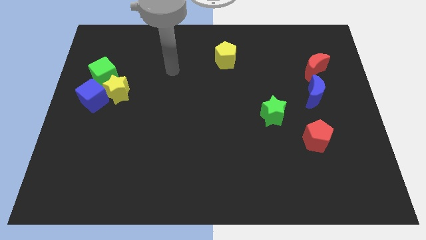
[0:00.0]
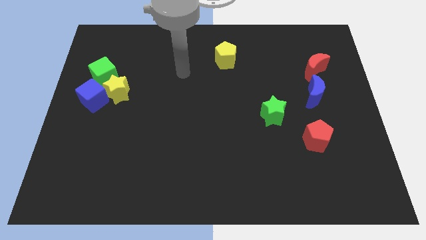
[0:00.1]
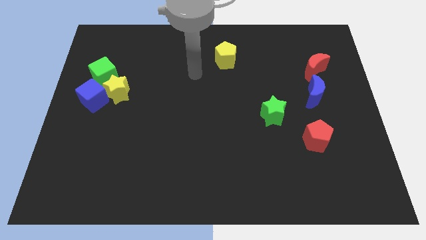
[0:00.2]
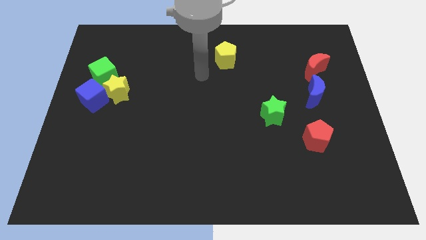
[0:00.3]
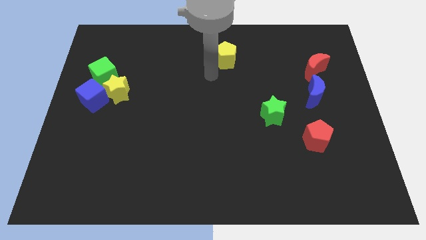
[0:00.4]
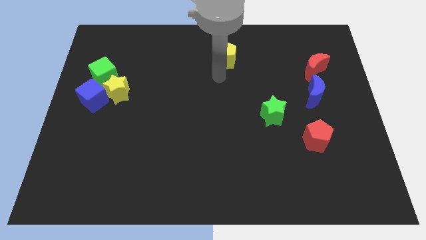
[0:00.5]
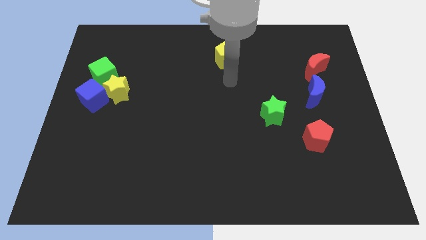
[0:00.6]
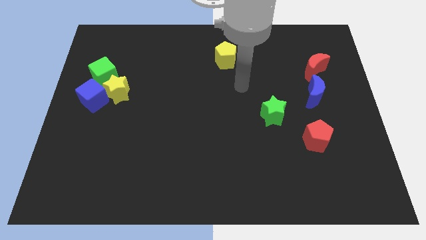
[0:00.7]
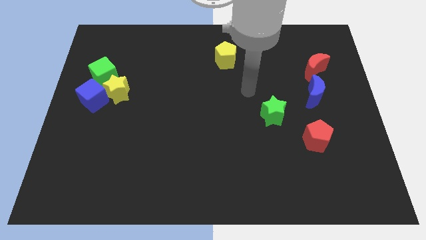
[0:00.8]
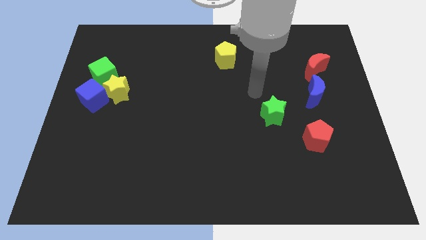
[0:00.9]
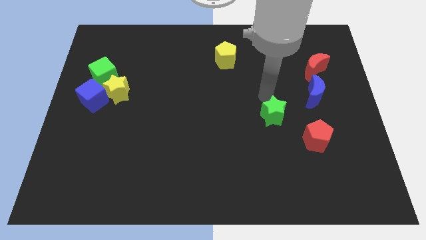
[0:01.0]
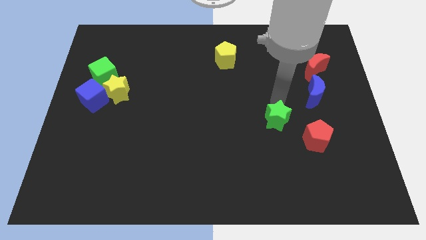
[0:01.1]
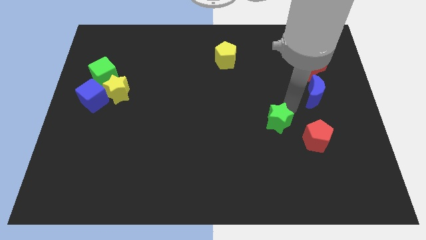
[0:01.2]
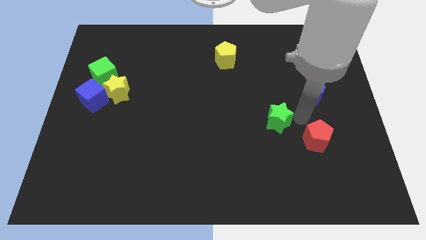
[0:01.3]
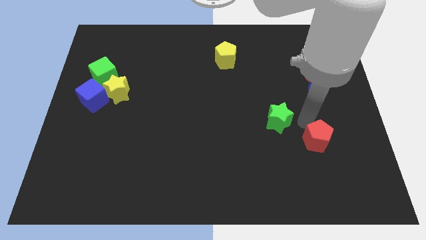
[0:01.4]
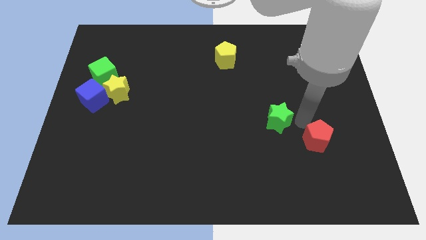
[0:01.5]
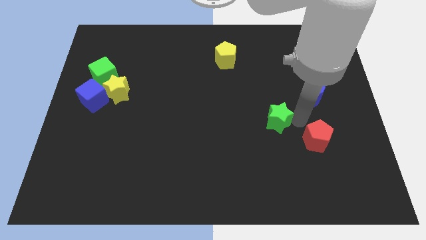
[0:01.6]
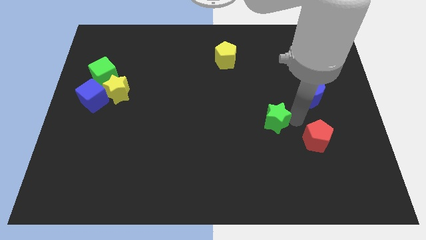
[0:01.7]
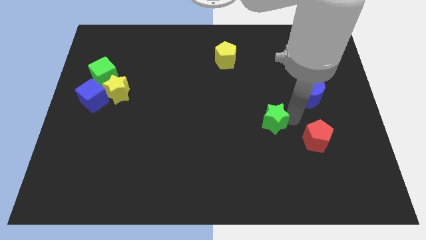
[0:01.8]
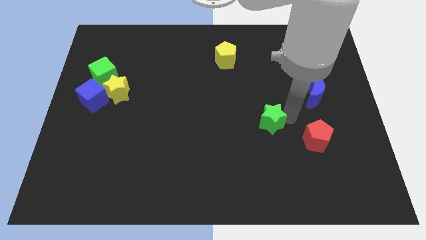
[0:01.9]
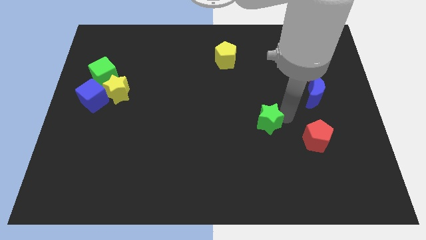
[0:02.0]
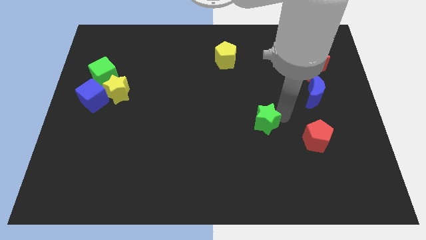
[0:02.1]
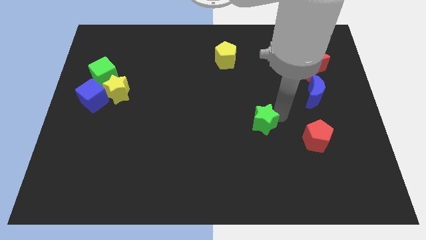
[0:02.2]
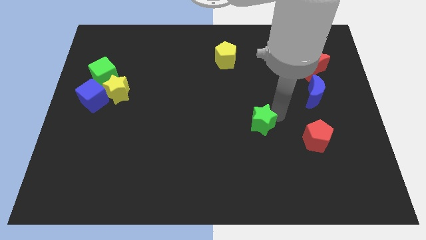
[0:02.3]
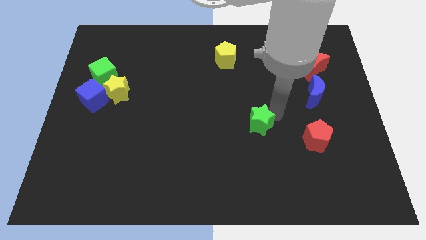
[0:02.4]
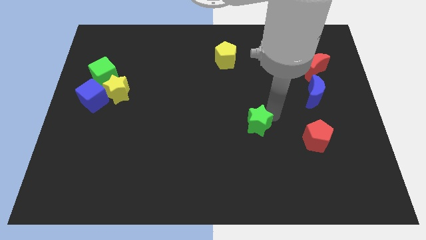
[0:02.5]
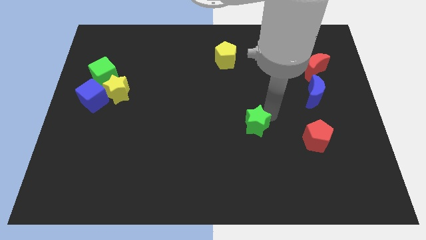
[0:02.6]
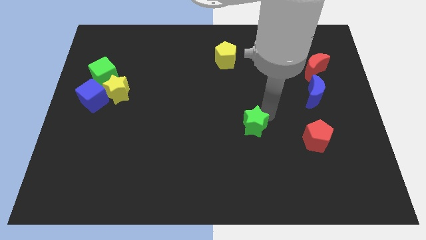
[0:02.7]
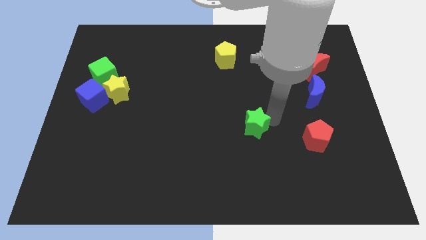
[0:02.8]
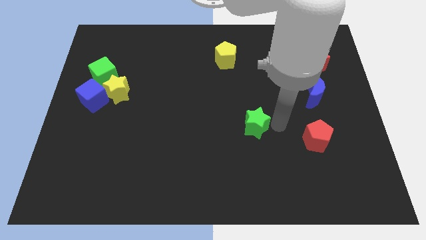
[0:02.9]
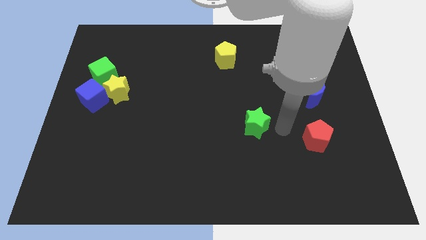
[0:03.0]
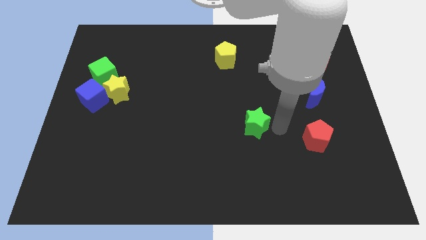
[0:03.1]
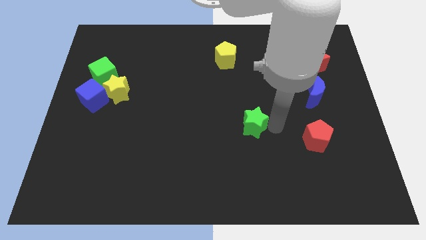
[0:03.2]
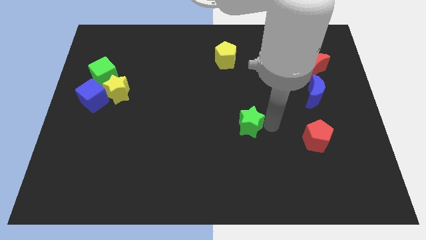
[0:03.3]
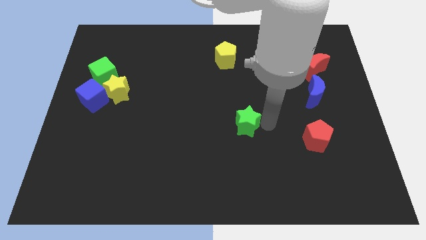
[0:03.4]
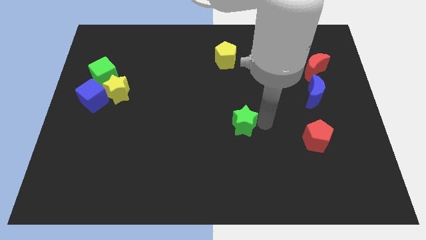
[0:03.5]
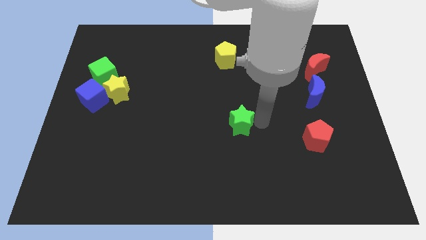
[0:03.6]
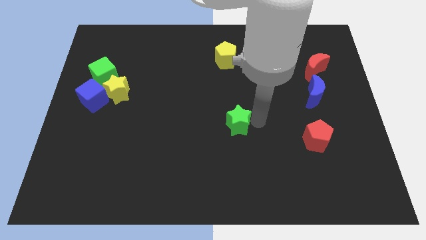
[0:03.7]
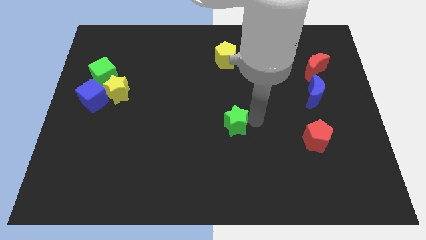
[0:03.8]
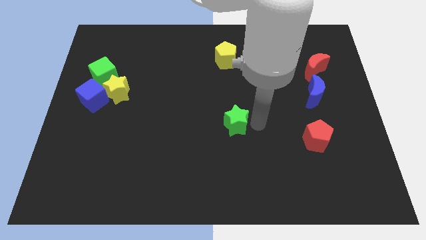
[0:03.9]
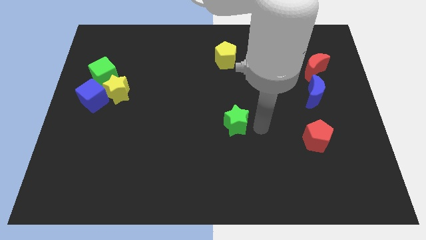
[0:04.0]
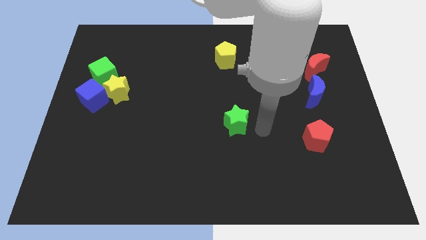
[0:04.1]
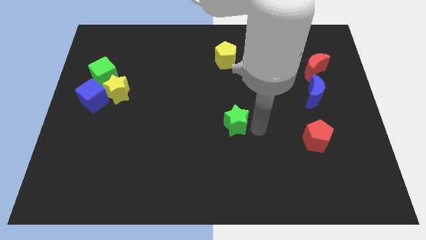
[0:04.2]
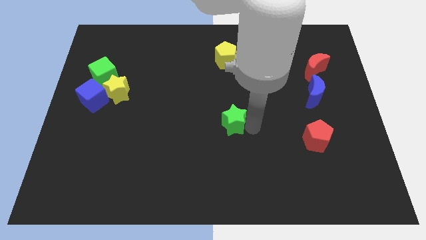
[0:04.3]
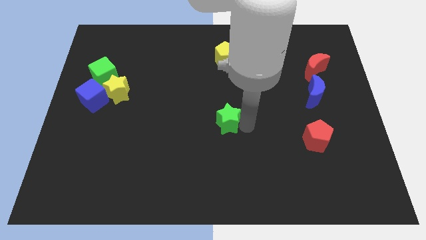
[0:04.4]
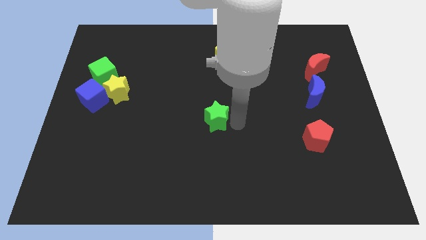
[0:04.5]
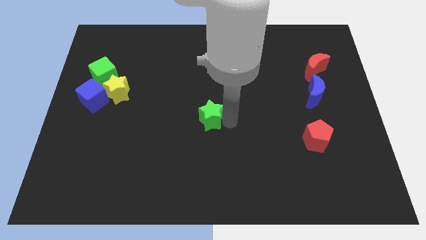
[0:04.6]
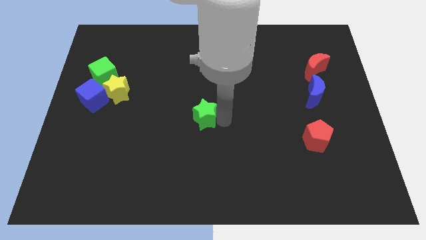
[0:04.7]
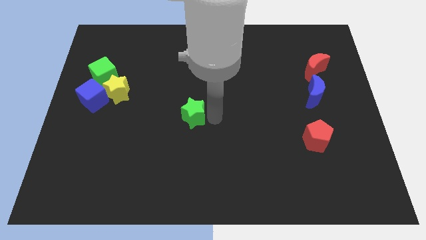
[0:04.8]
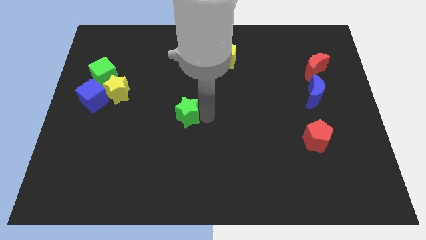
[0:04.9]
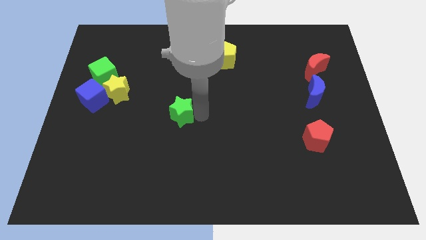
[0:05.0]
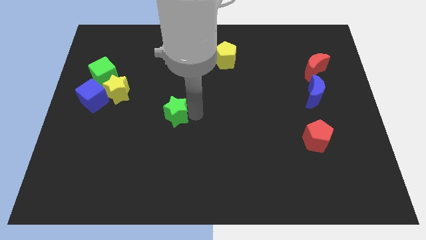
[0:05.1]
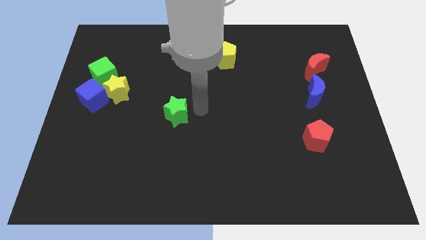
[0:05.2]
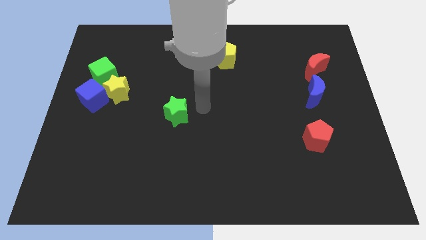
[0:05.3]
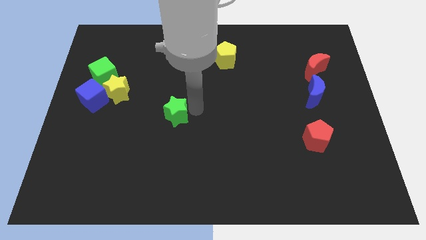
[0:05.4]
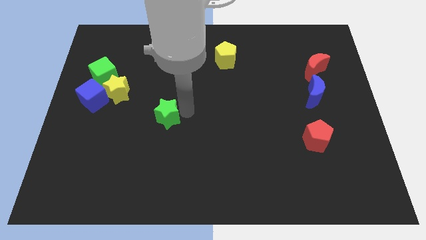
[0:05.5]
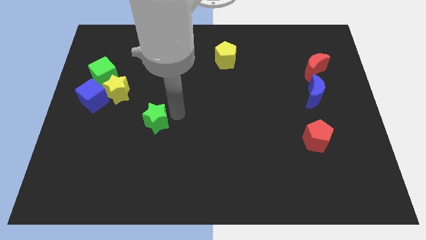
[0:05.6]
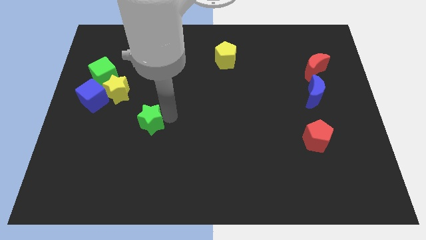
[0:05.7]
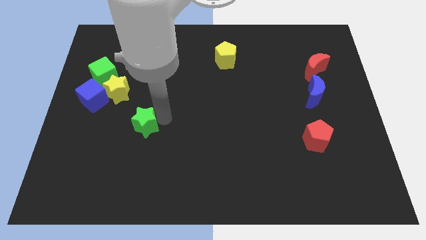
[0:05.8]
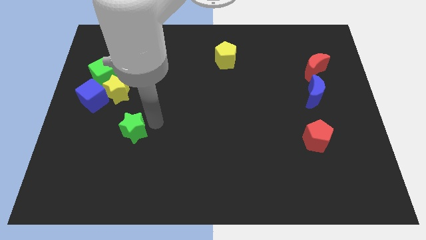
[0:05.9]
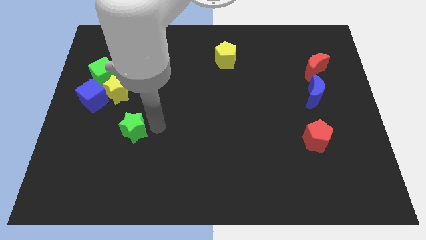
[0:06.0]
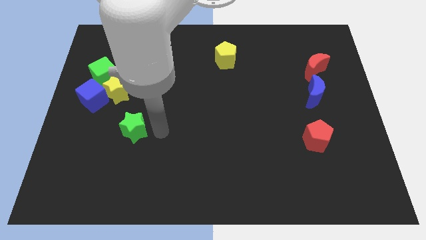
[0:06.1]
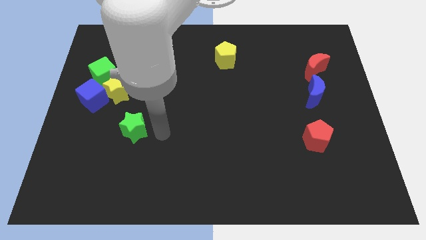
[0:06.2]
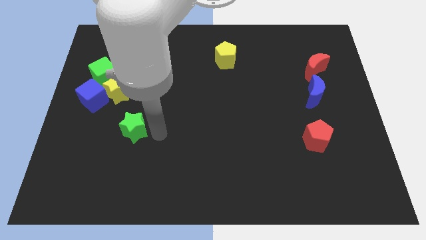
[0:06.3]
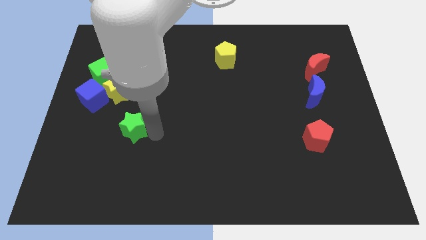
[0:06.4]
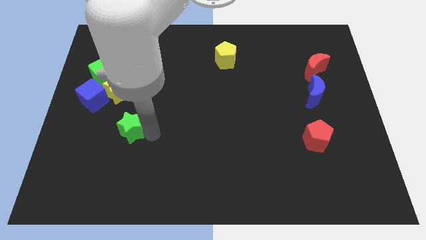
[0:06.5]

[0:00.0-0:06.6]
move the green star to the bottom of the yellow star

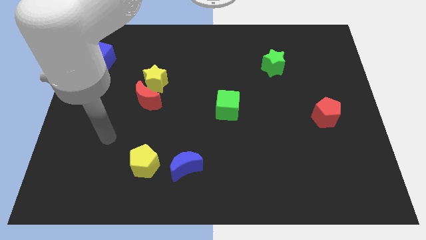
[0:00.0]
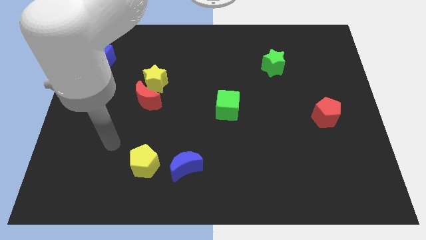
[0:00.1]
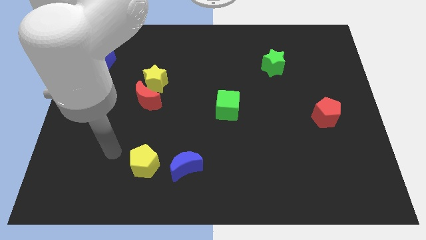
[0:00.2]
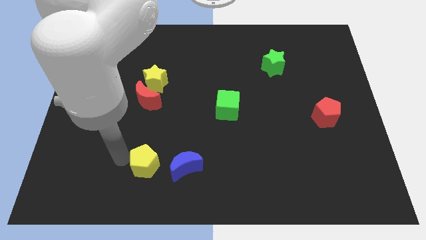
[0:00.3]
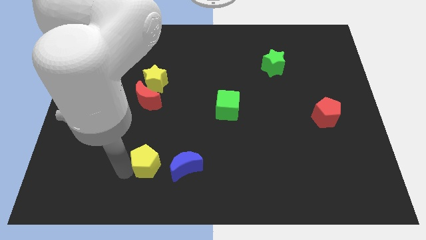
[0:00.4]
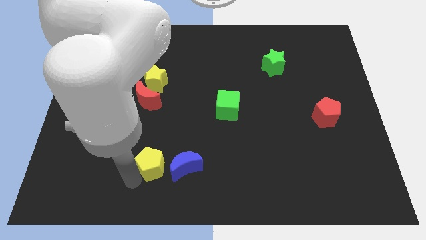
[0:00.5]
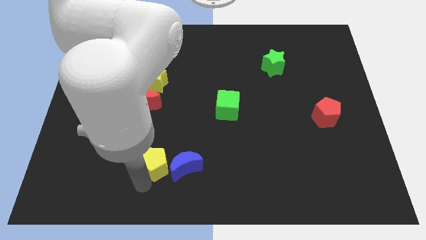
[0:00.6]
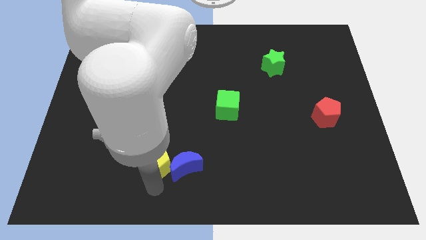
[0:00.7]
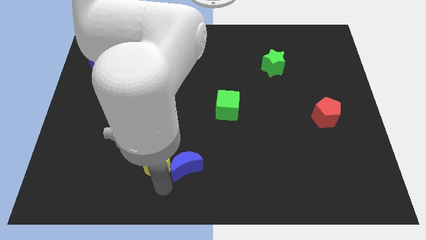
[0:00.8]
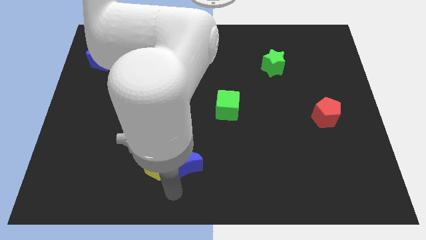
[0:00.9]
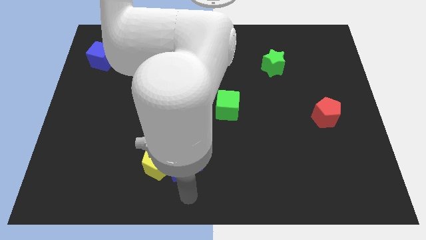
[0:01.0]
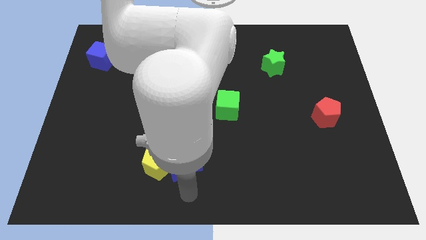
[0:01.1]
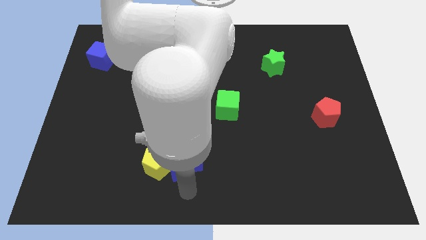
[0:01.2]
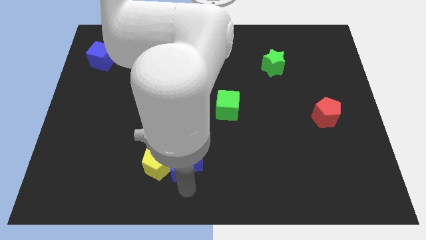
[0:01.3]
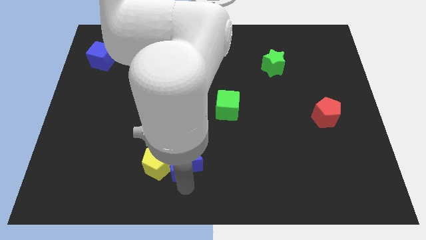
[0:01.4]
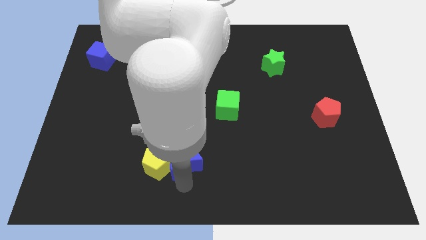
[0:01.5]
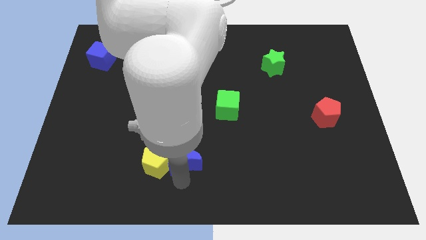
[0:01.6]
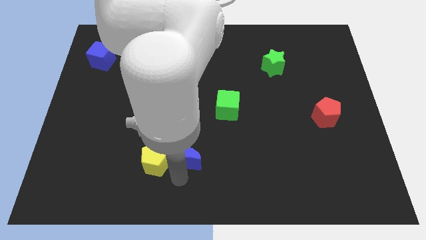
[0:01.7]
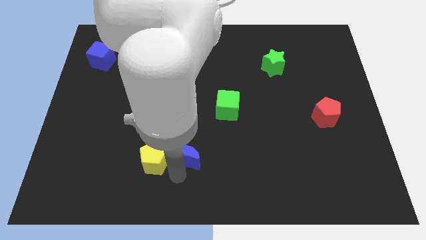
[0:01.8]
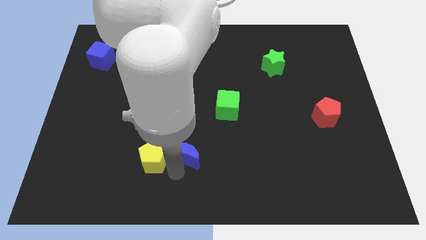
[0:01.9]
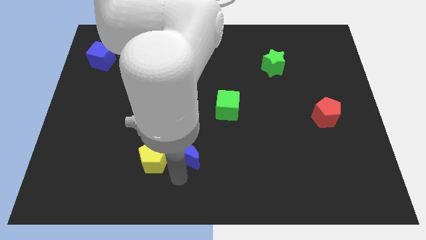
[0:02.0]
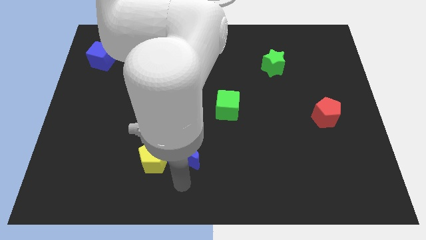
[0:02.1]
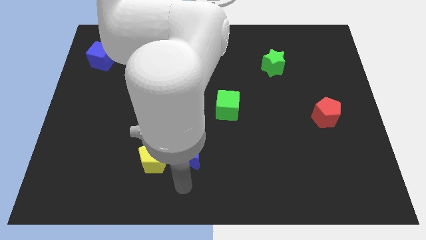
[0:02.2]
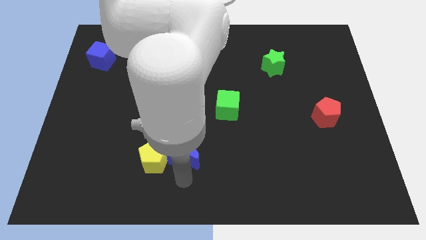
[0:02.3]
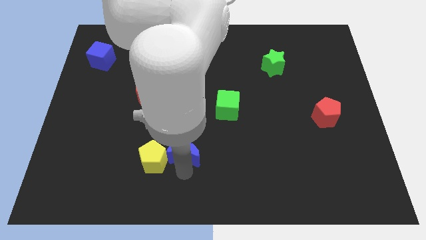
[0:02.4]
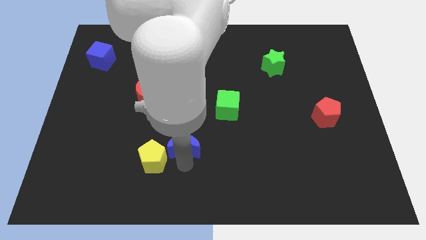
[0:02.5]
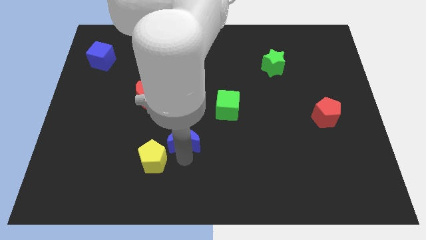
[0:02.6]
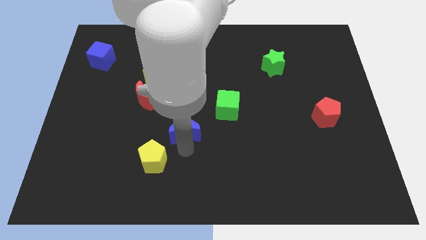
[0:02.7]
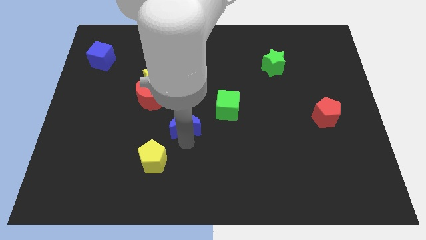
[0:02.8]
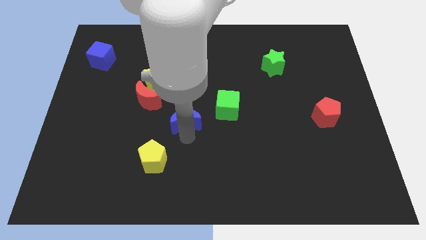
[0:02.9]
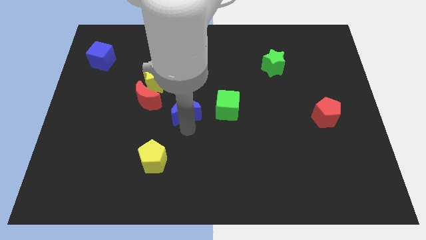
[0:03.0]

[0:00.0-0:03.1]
slide the blue moon to the bottom right of the yellow star
